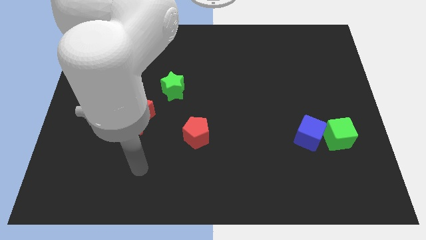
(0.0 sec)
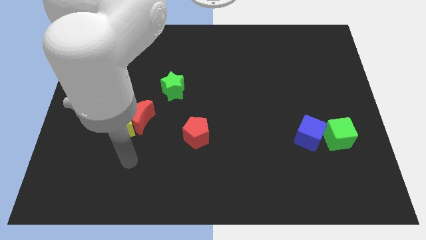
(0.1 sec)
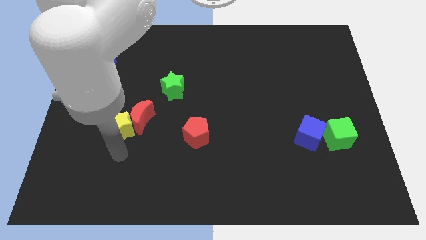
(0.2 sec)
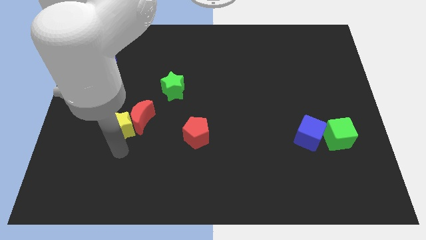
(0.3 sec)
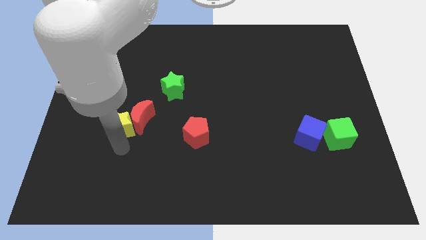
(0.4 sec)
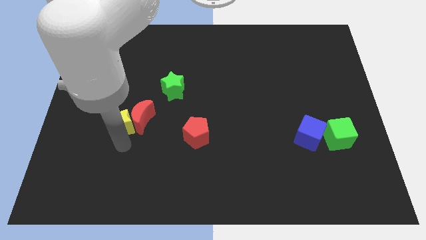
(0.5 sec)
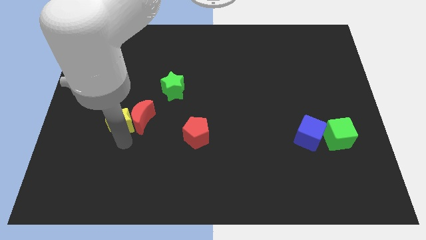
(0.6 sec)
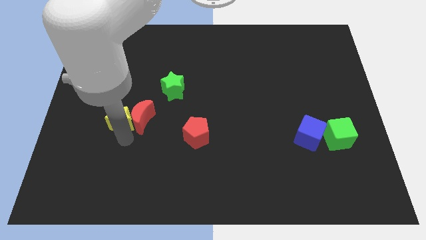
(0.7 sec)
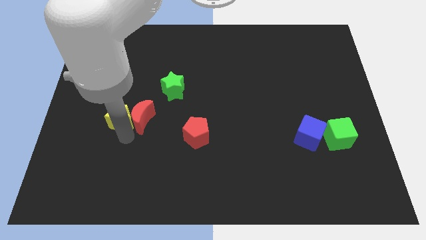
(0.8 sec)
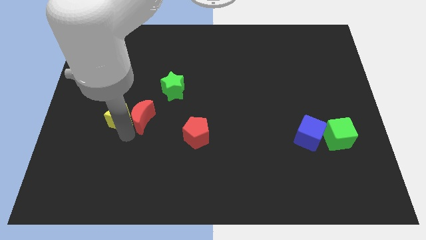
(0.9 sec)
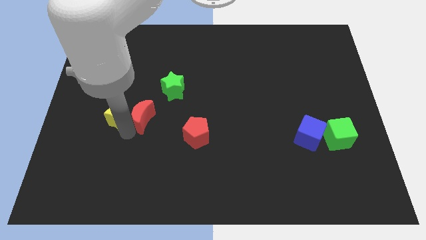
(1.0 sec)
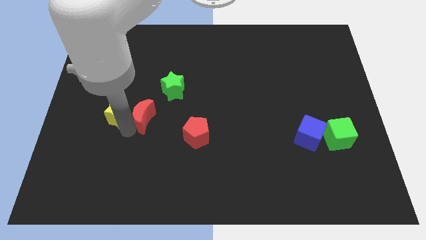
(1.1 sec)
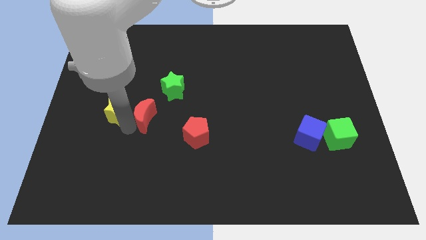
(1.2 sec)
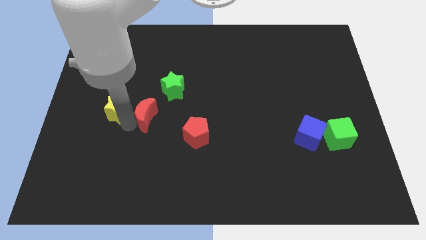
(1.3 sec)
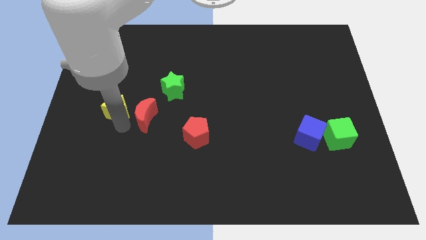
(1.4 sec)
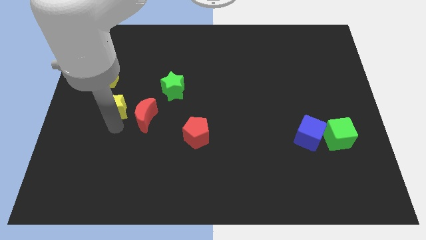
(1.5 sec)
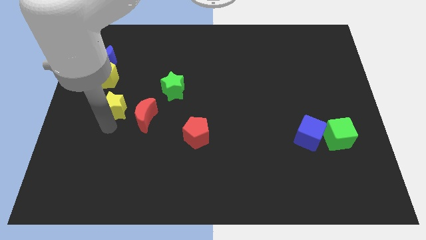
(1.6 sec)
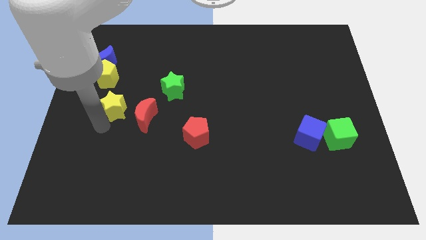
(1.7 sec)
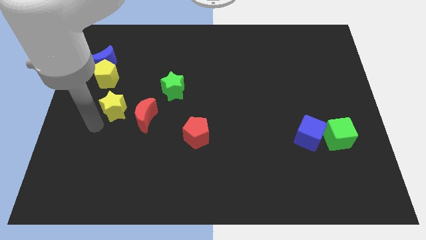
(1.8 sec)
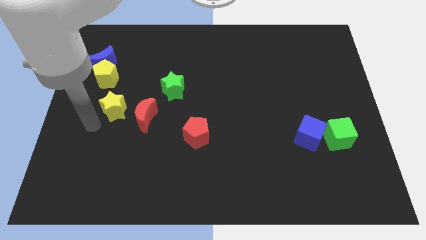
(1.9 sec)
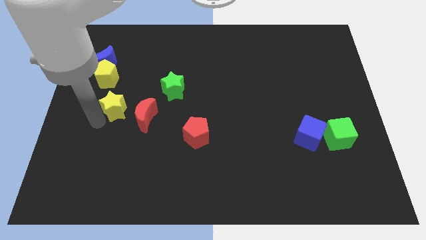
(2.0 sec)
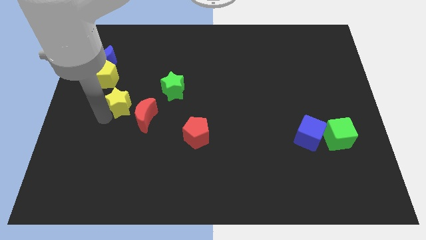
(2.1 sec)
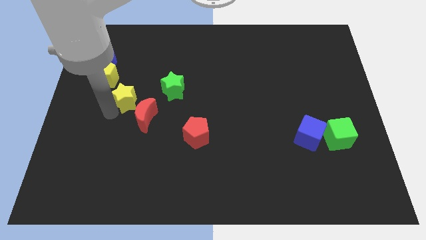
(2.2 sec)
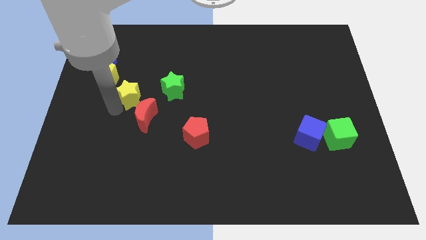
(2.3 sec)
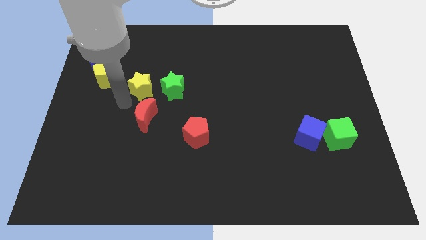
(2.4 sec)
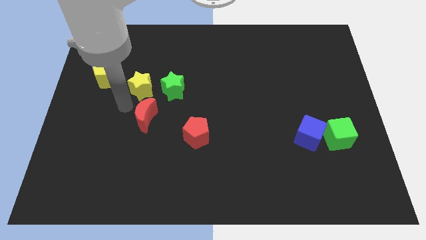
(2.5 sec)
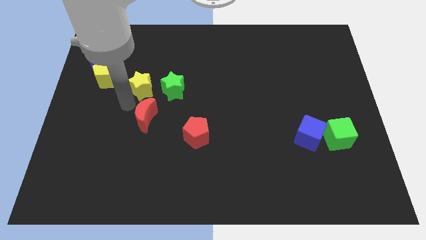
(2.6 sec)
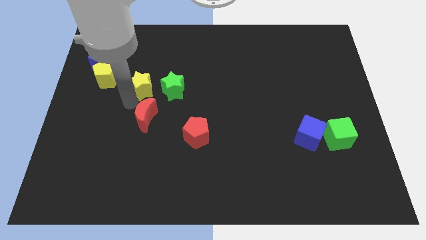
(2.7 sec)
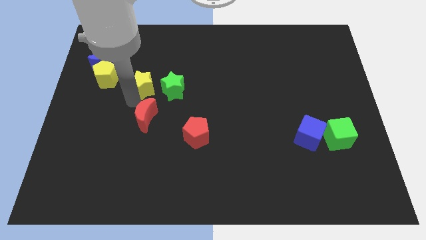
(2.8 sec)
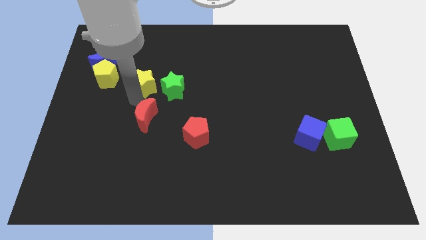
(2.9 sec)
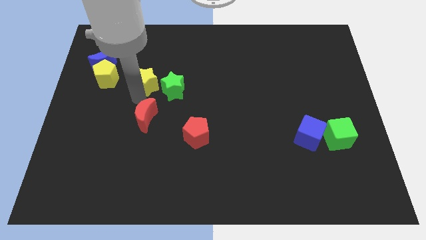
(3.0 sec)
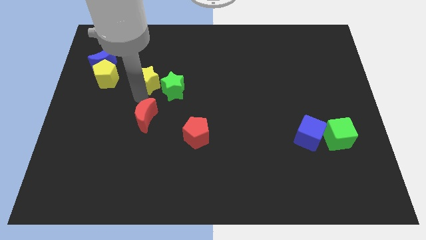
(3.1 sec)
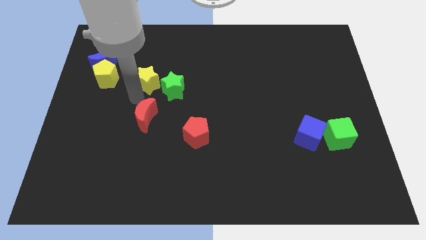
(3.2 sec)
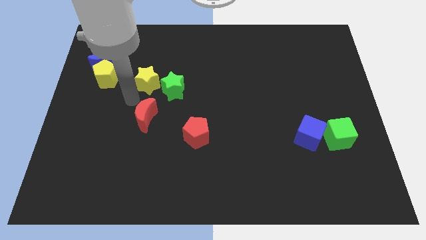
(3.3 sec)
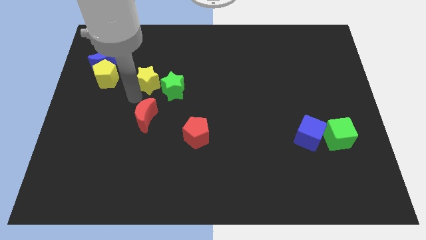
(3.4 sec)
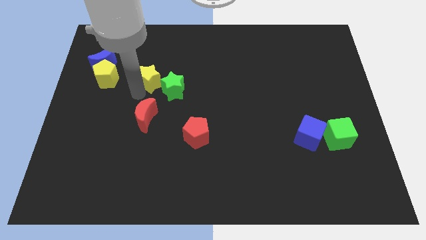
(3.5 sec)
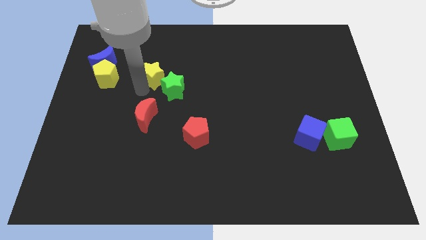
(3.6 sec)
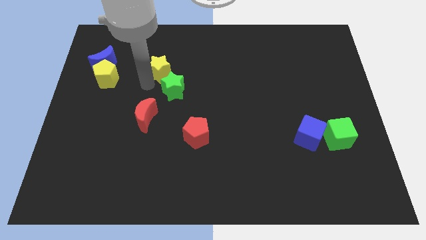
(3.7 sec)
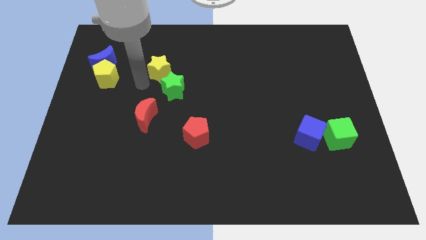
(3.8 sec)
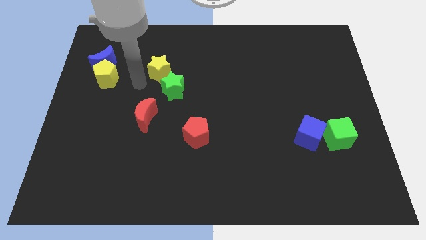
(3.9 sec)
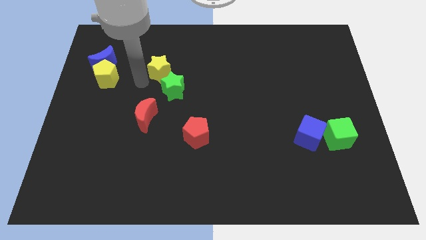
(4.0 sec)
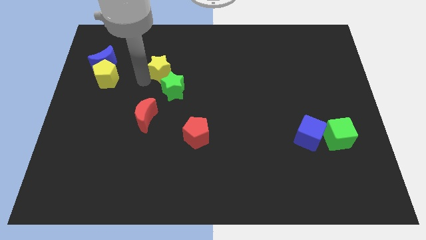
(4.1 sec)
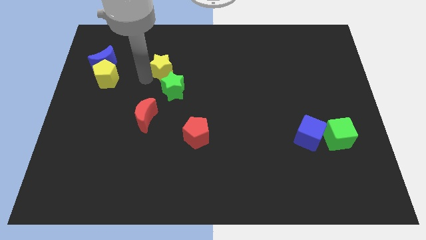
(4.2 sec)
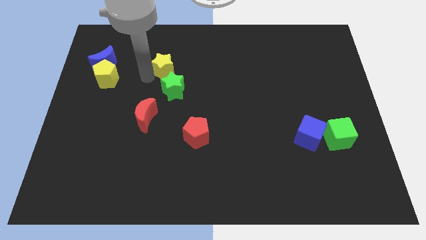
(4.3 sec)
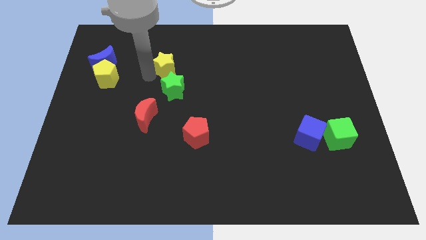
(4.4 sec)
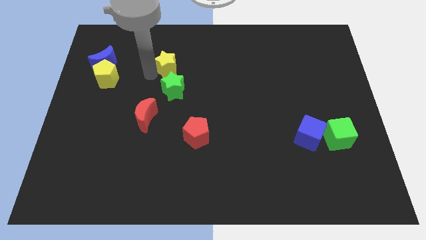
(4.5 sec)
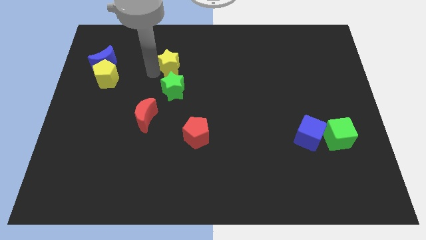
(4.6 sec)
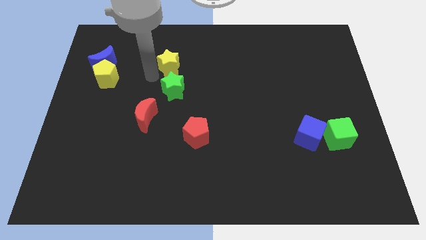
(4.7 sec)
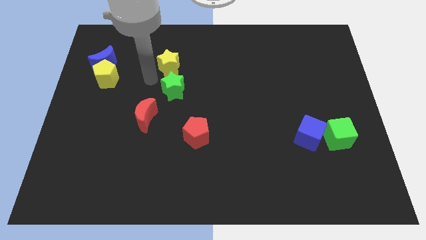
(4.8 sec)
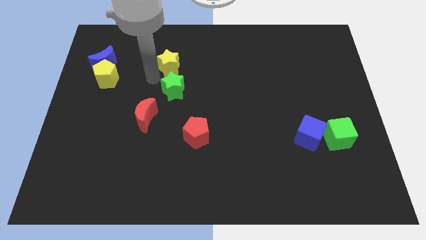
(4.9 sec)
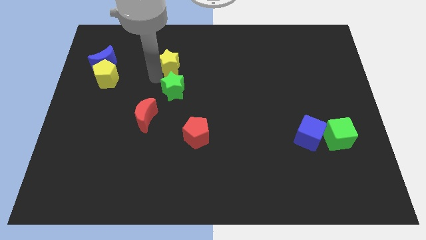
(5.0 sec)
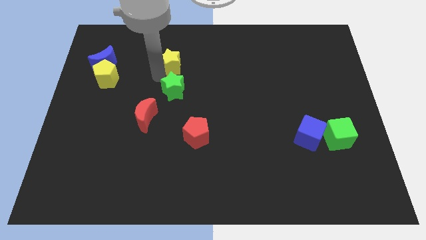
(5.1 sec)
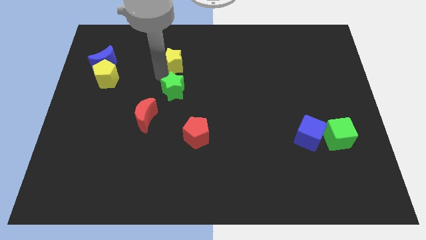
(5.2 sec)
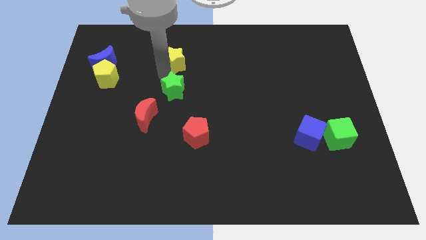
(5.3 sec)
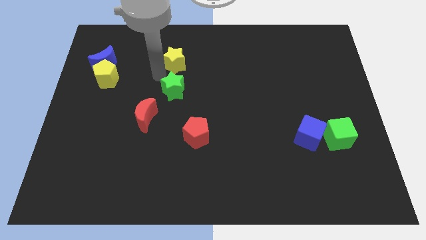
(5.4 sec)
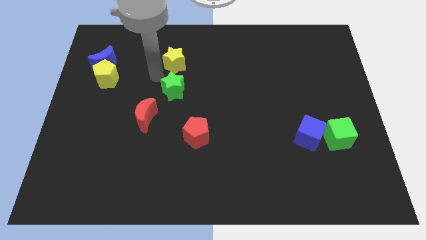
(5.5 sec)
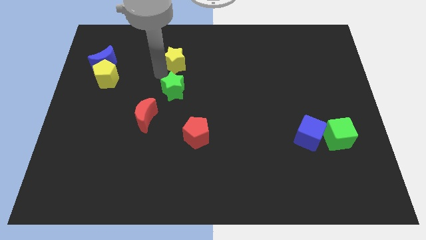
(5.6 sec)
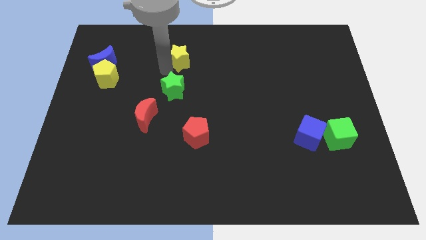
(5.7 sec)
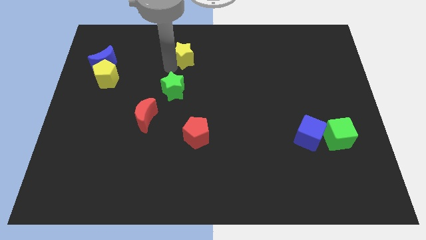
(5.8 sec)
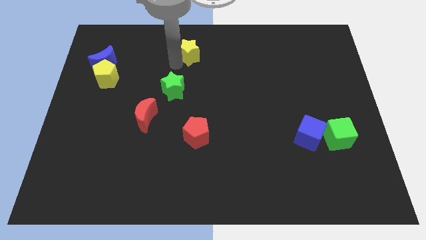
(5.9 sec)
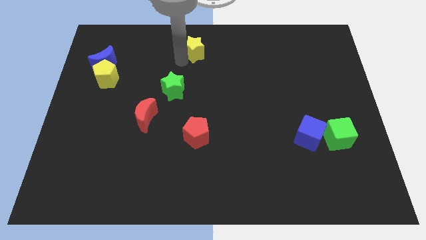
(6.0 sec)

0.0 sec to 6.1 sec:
move the yellow star to the top
